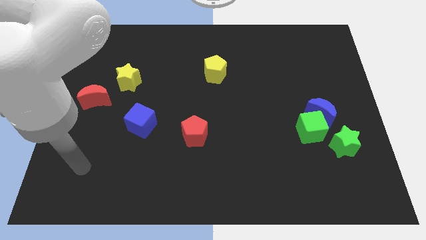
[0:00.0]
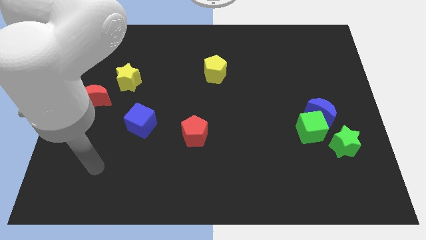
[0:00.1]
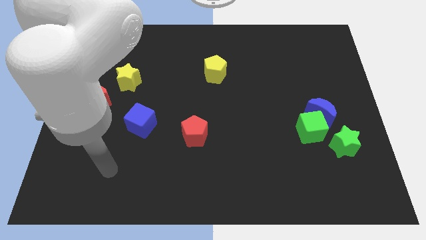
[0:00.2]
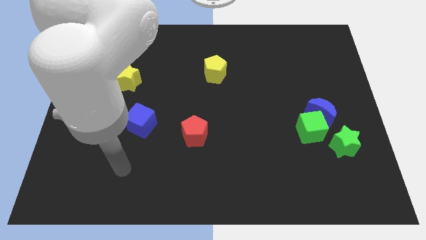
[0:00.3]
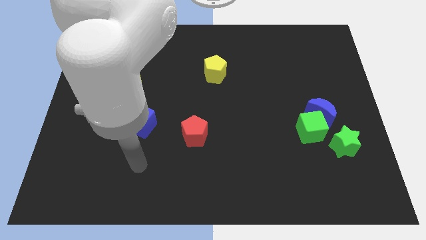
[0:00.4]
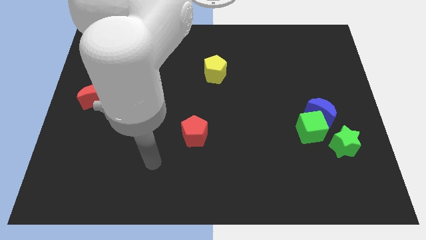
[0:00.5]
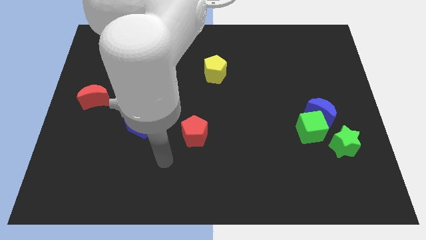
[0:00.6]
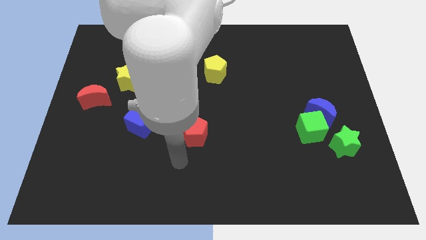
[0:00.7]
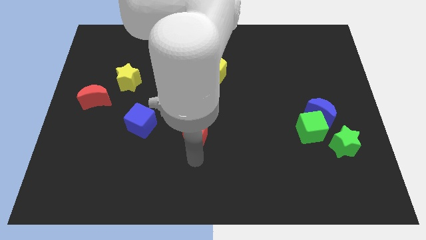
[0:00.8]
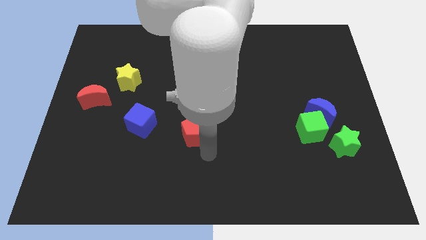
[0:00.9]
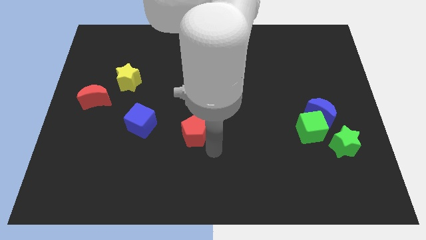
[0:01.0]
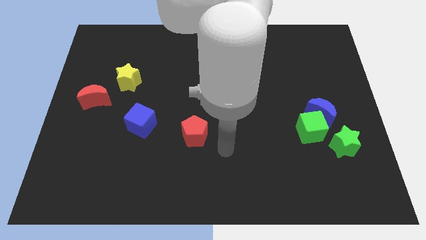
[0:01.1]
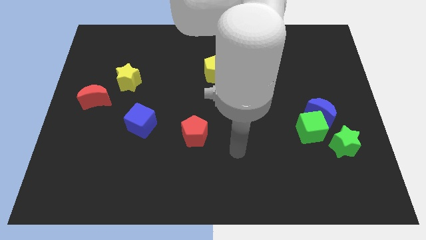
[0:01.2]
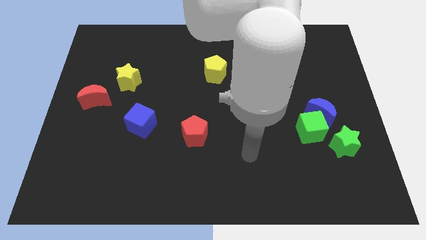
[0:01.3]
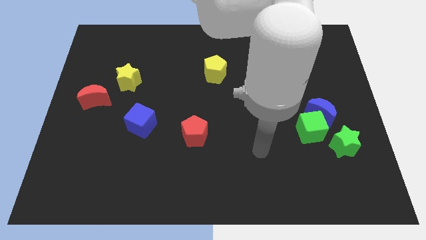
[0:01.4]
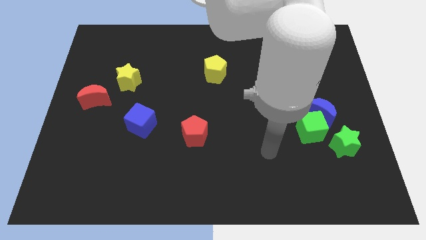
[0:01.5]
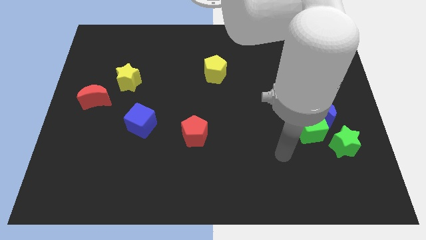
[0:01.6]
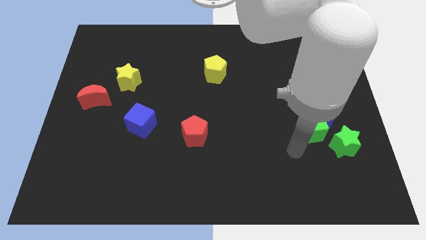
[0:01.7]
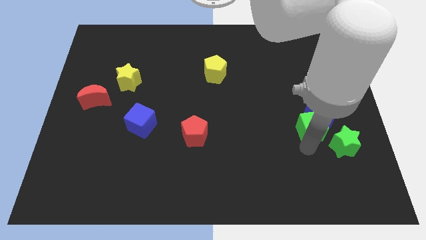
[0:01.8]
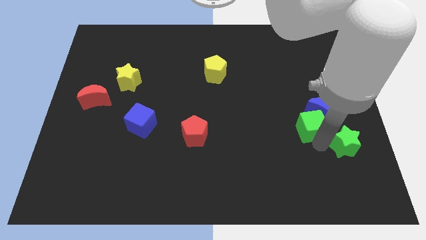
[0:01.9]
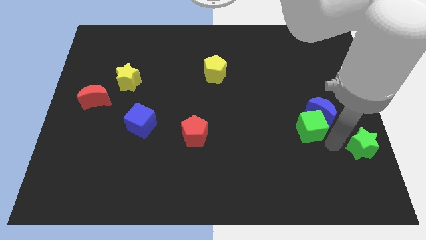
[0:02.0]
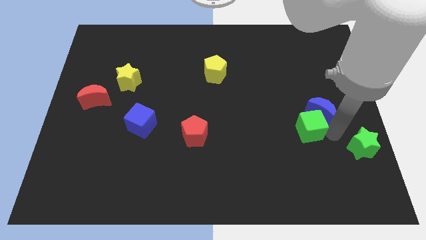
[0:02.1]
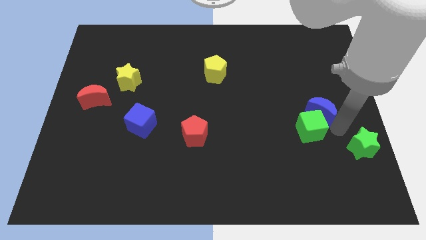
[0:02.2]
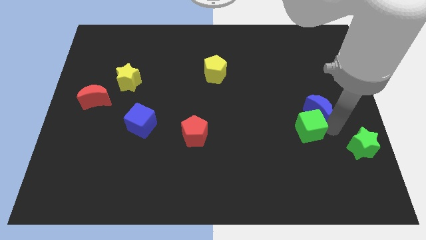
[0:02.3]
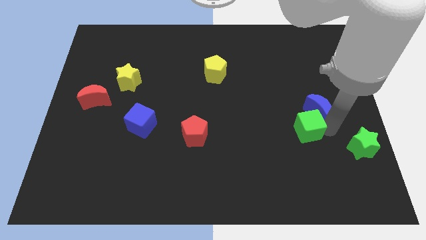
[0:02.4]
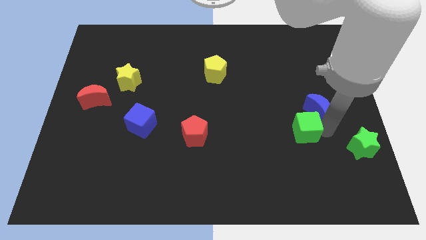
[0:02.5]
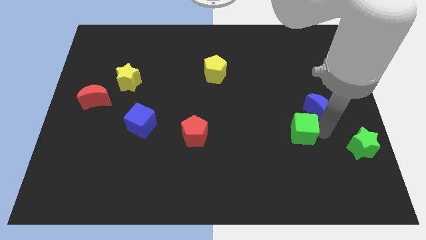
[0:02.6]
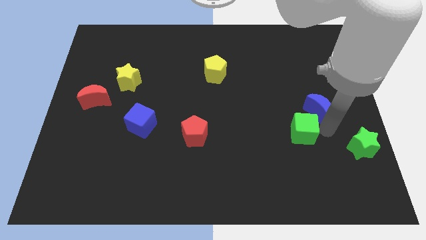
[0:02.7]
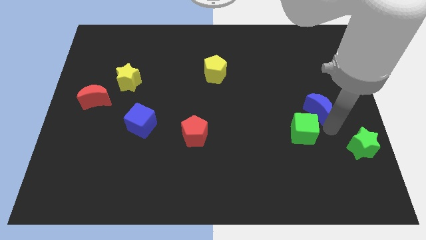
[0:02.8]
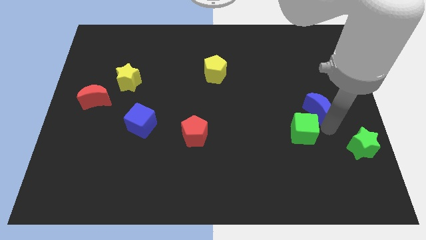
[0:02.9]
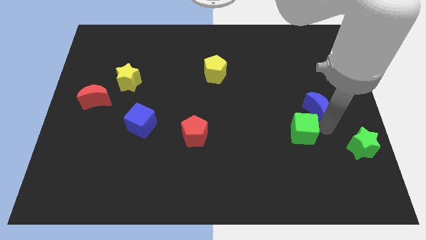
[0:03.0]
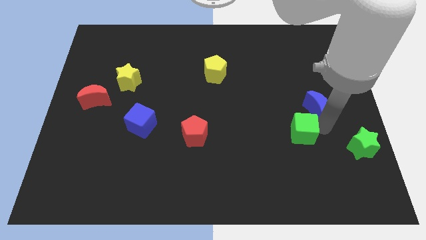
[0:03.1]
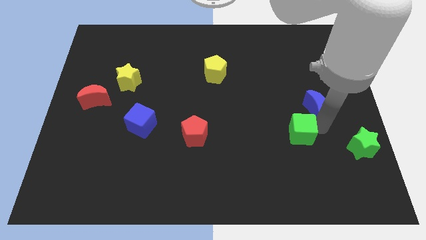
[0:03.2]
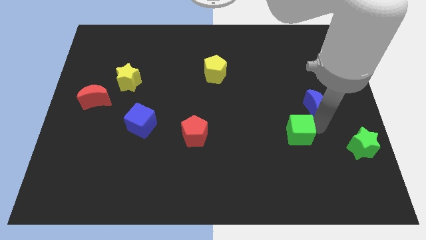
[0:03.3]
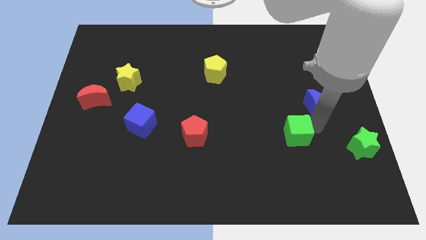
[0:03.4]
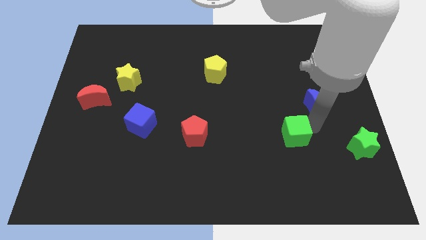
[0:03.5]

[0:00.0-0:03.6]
separate the green cube from the blue moon and green star

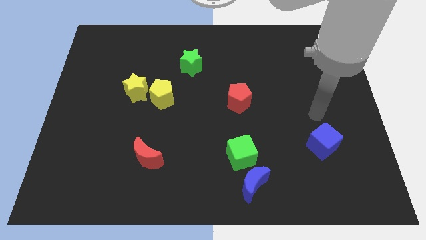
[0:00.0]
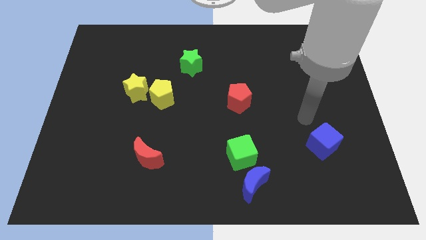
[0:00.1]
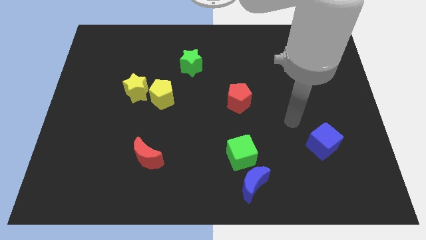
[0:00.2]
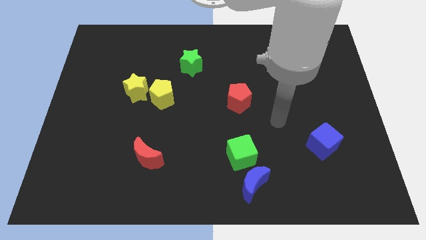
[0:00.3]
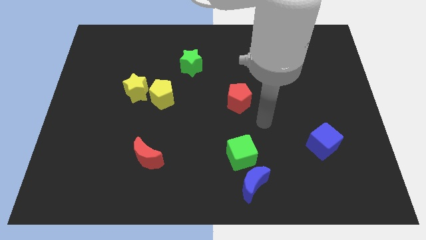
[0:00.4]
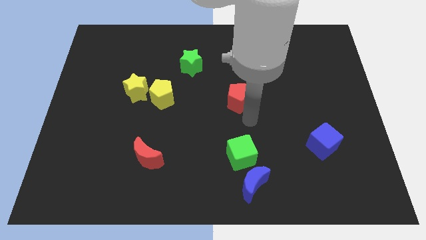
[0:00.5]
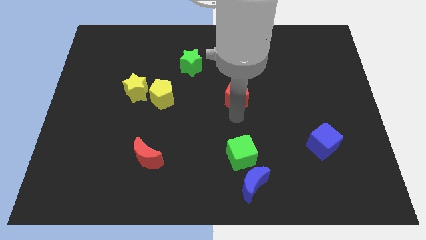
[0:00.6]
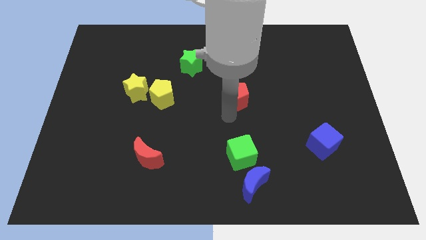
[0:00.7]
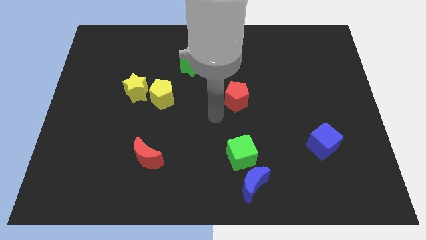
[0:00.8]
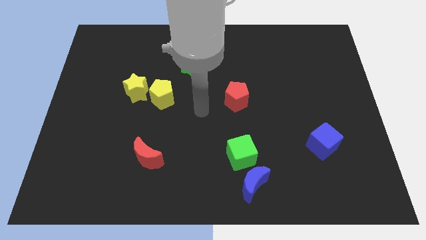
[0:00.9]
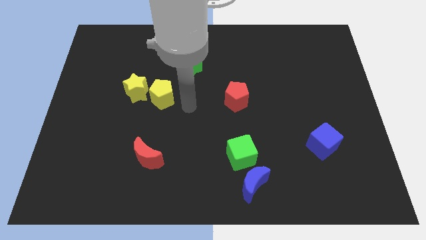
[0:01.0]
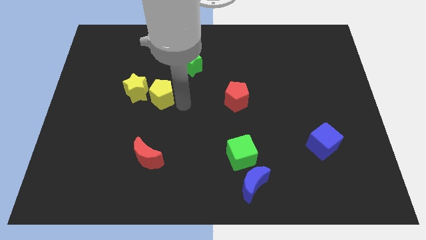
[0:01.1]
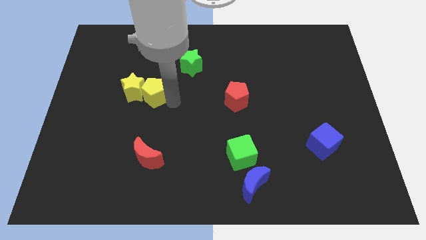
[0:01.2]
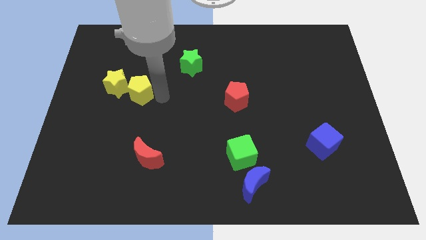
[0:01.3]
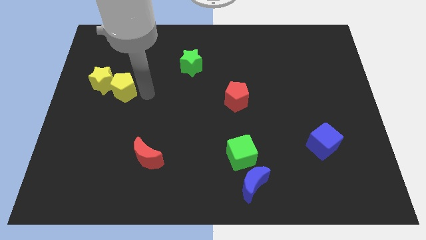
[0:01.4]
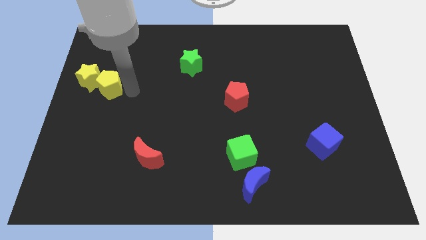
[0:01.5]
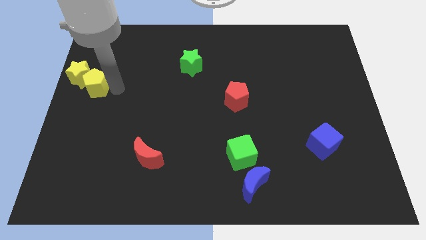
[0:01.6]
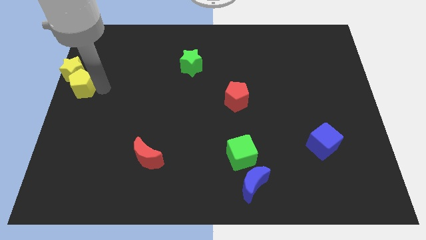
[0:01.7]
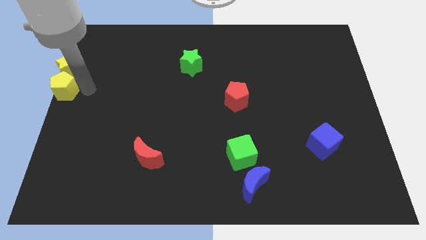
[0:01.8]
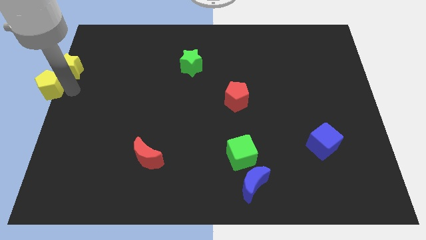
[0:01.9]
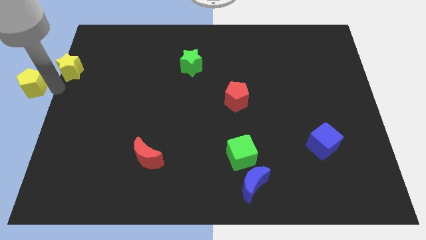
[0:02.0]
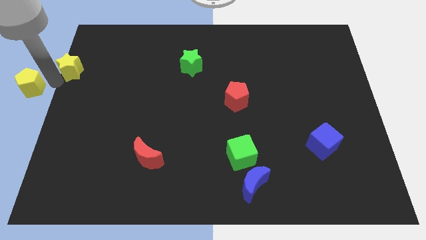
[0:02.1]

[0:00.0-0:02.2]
move the yellow star away from the yellow pentagon

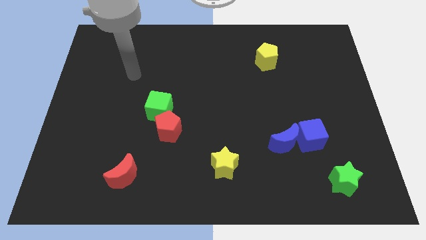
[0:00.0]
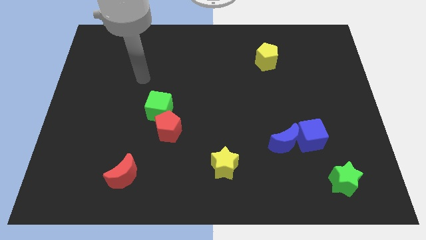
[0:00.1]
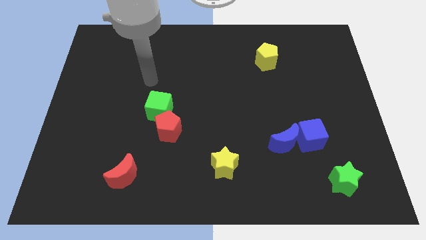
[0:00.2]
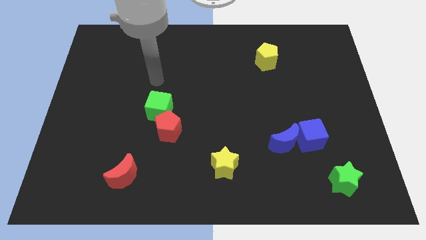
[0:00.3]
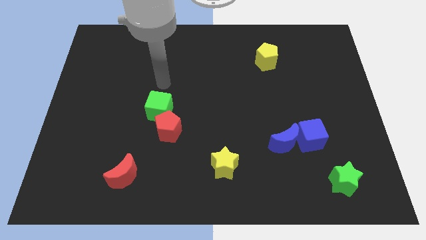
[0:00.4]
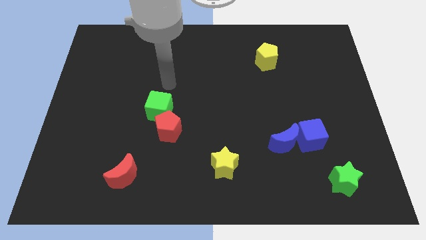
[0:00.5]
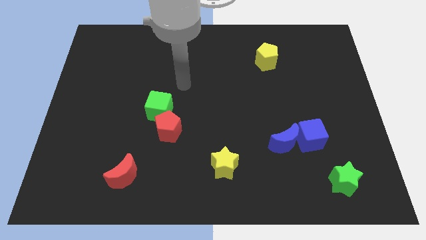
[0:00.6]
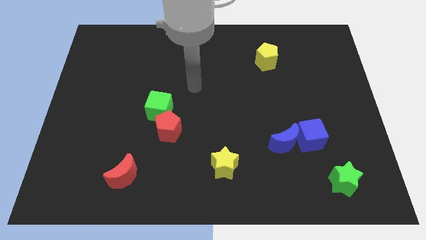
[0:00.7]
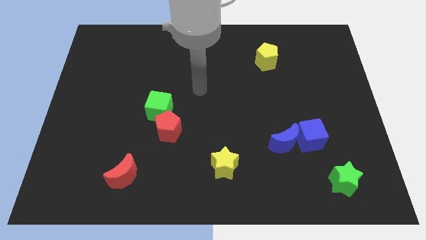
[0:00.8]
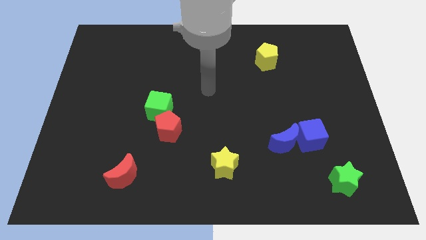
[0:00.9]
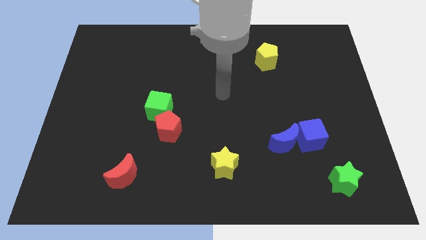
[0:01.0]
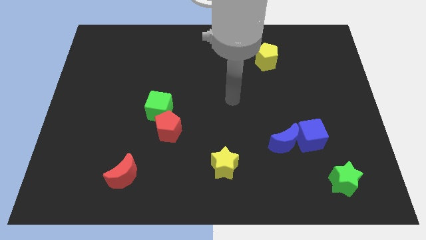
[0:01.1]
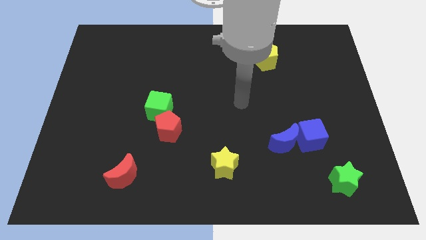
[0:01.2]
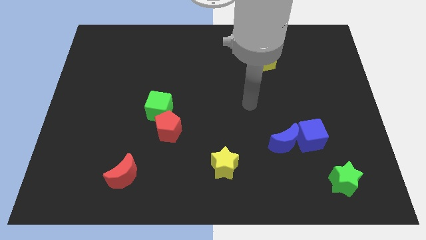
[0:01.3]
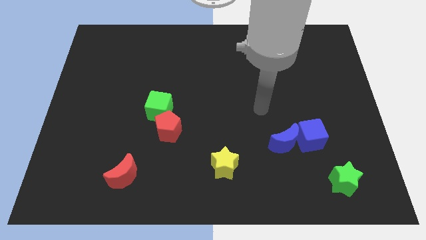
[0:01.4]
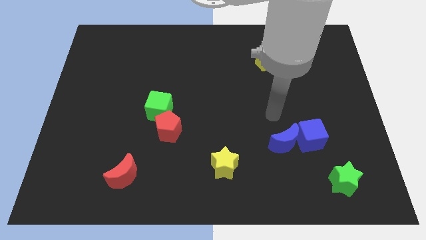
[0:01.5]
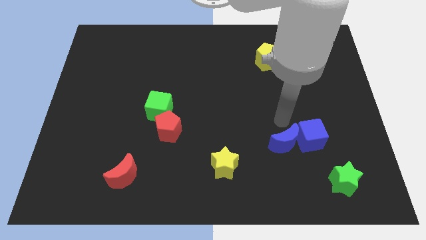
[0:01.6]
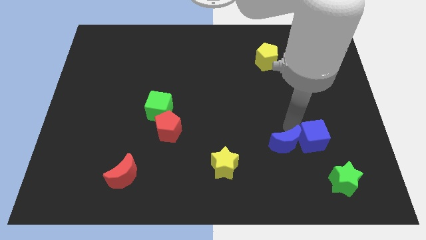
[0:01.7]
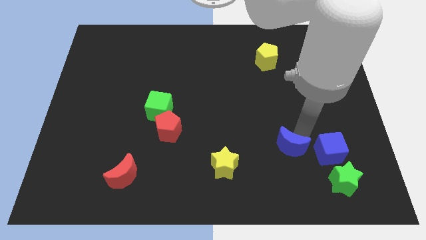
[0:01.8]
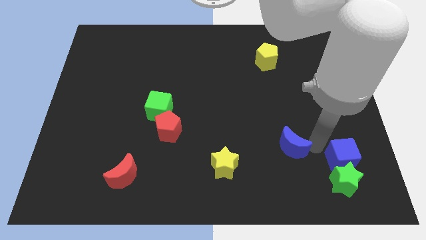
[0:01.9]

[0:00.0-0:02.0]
separate the blue moon from the blue cube

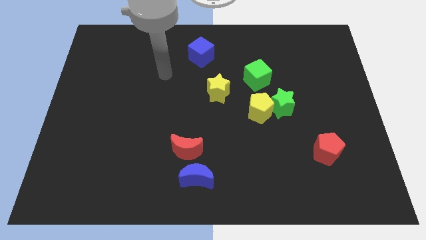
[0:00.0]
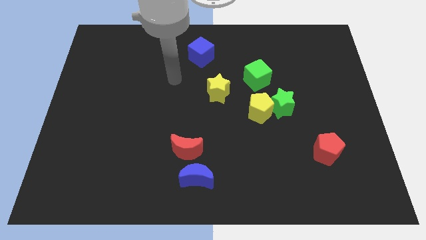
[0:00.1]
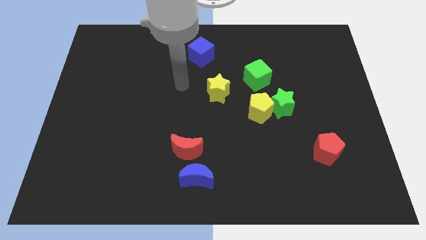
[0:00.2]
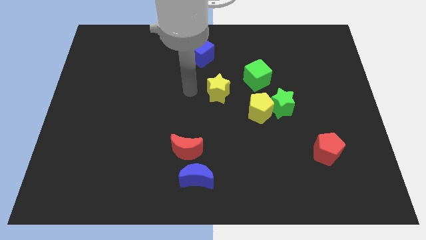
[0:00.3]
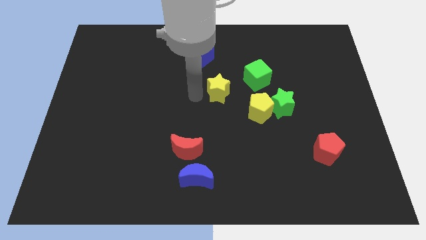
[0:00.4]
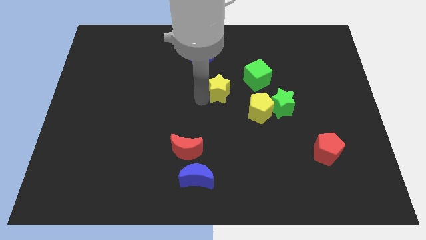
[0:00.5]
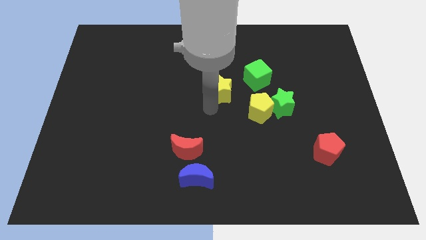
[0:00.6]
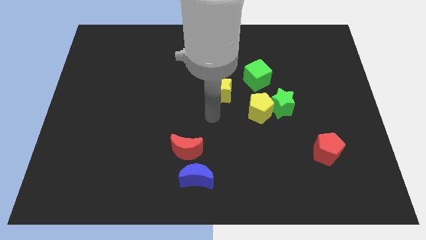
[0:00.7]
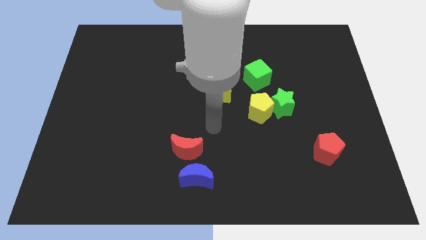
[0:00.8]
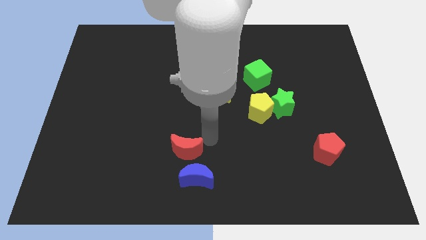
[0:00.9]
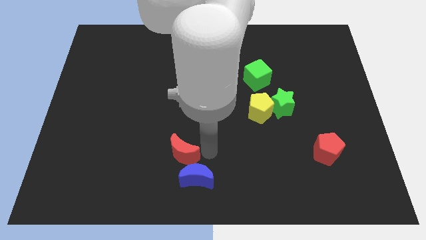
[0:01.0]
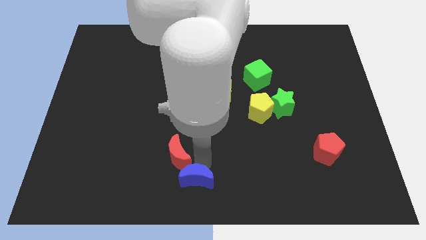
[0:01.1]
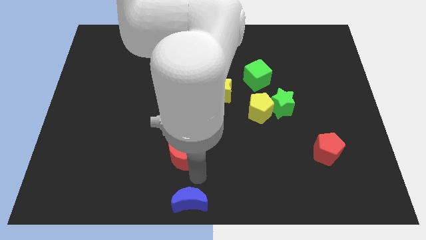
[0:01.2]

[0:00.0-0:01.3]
separate the red moon from the blue moon

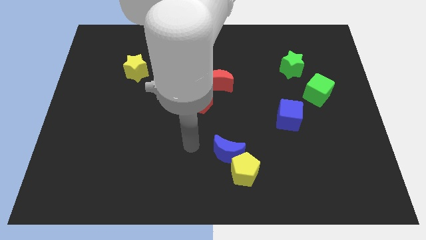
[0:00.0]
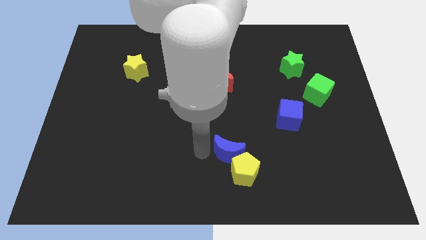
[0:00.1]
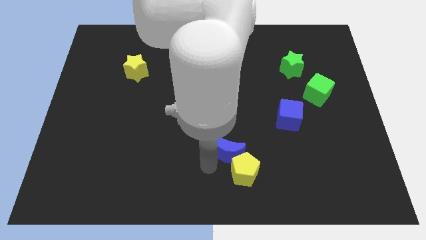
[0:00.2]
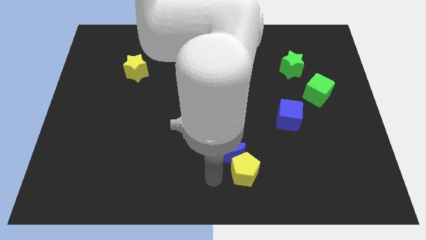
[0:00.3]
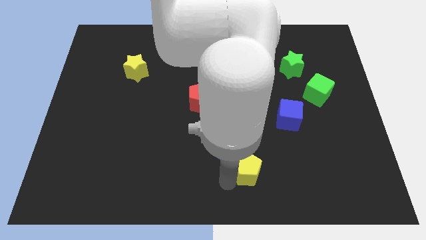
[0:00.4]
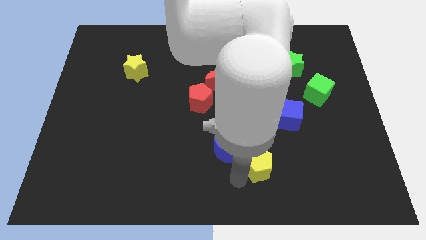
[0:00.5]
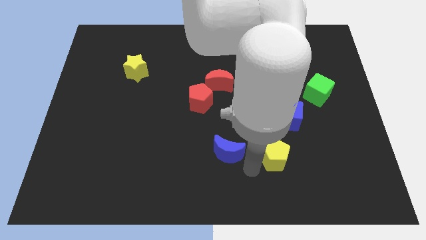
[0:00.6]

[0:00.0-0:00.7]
pull the blue moon apart from the yellow pentagon
